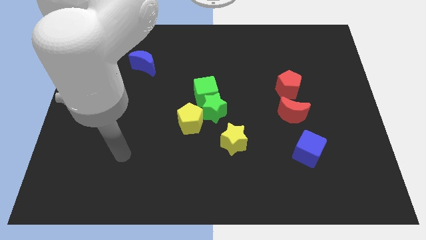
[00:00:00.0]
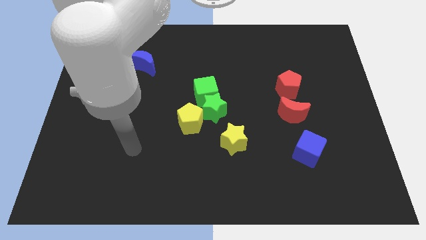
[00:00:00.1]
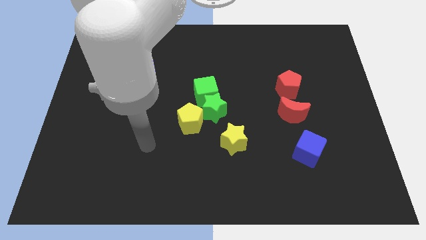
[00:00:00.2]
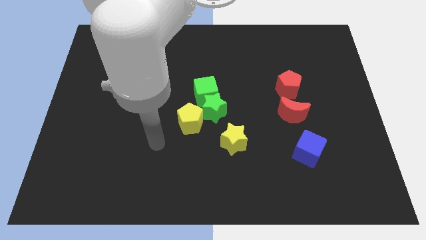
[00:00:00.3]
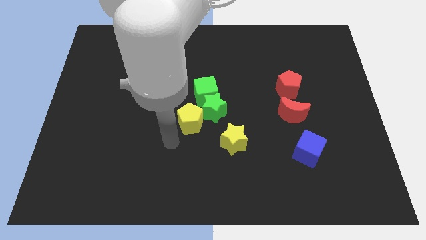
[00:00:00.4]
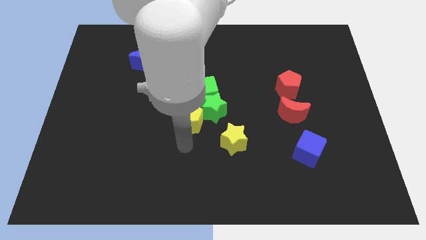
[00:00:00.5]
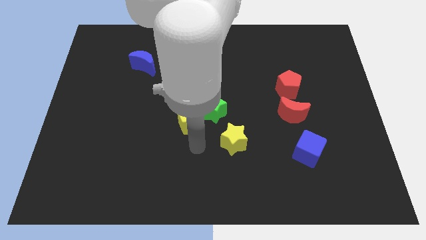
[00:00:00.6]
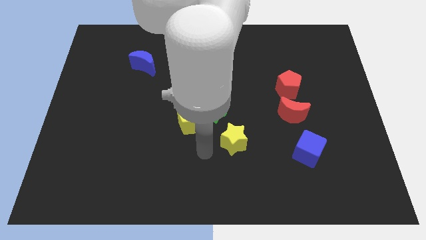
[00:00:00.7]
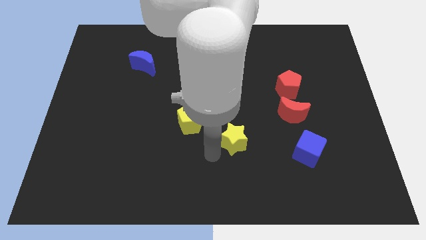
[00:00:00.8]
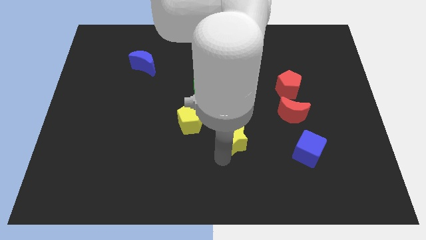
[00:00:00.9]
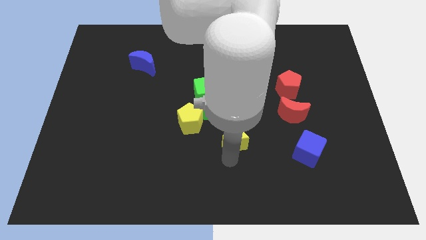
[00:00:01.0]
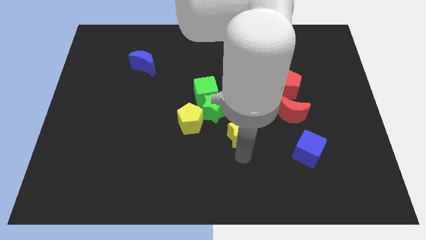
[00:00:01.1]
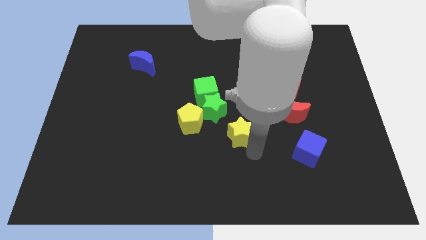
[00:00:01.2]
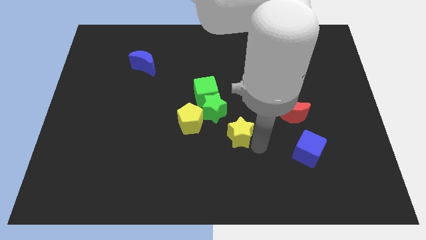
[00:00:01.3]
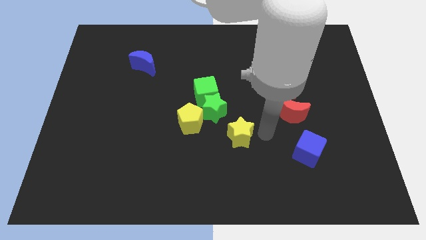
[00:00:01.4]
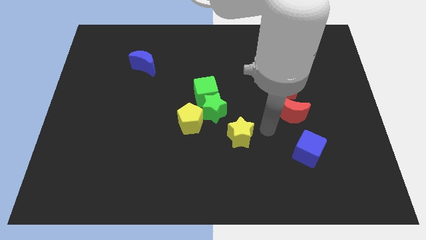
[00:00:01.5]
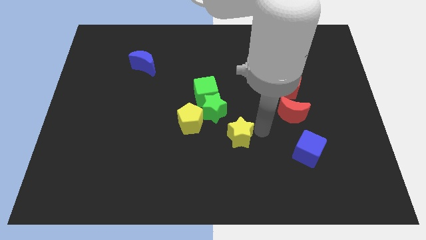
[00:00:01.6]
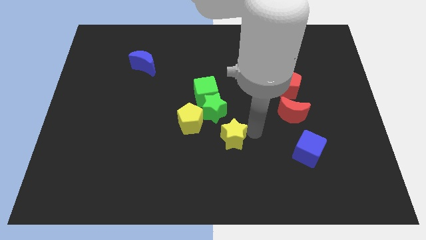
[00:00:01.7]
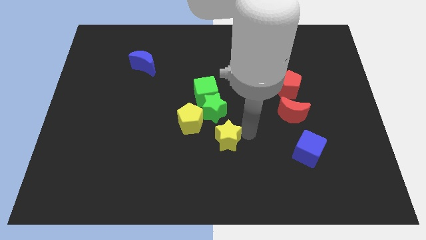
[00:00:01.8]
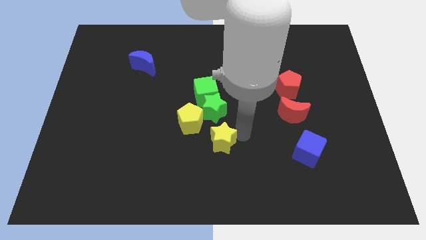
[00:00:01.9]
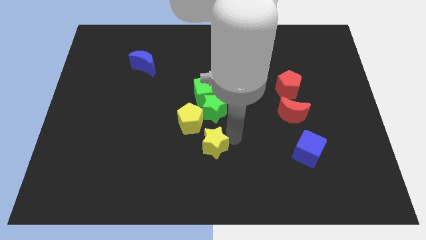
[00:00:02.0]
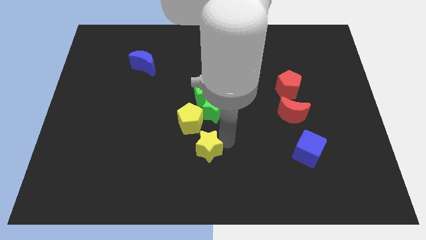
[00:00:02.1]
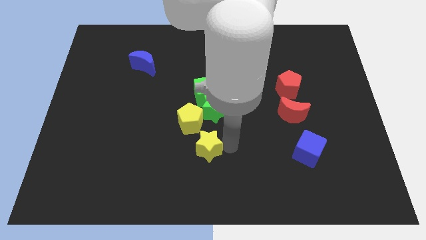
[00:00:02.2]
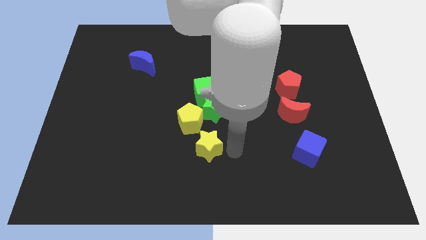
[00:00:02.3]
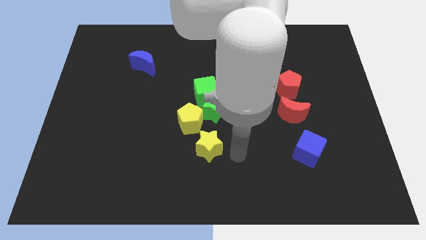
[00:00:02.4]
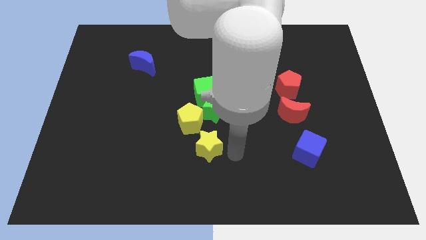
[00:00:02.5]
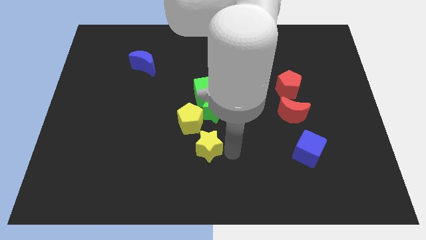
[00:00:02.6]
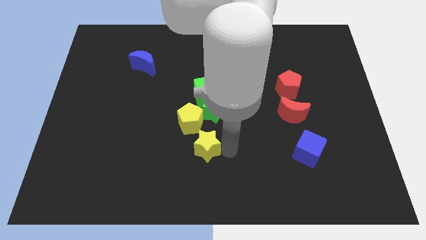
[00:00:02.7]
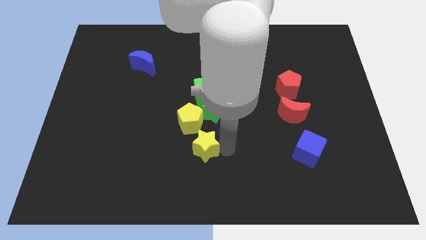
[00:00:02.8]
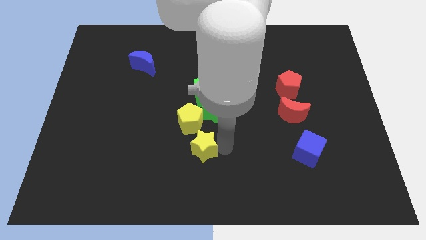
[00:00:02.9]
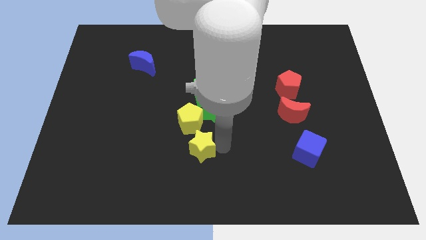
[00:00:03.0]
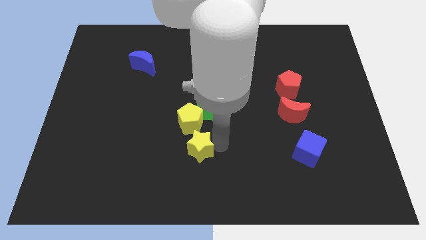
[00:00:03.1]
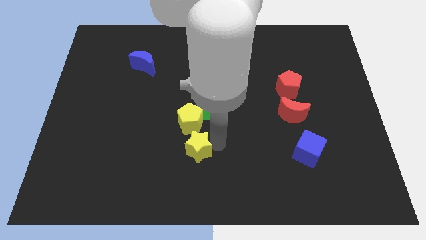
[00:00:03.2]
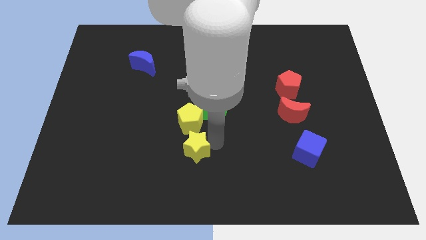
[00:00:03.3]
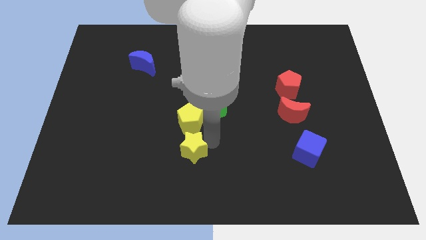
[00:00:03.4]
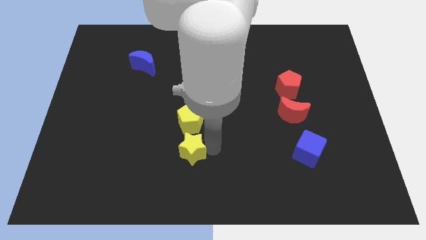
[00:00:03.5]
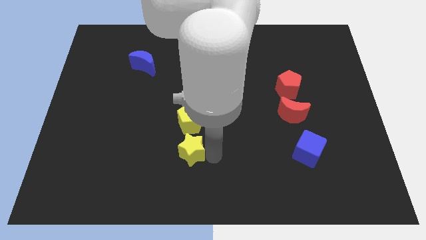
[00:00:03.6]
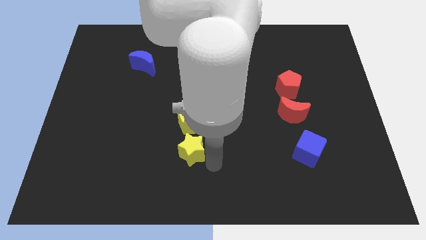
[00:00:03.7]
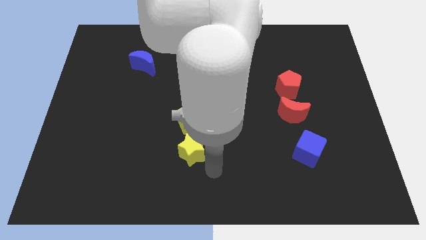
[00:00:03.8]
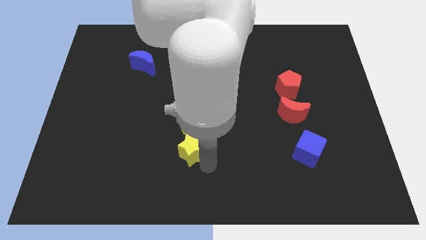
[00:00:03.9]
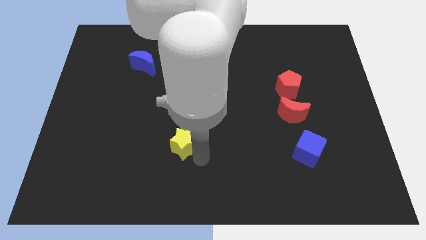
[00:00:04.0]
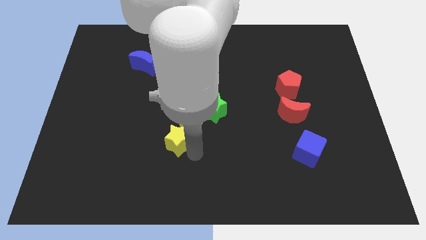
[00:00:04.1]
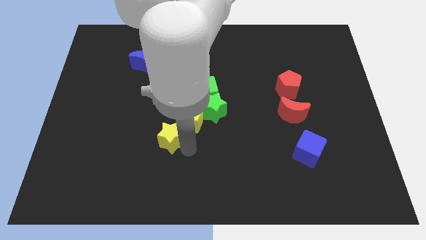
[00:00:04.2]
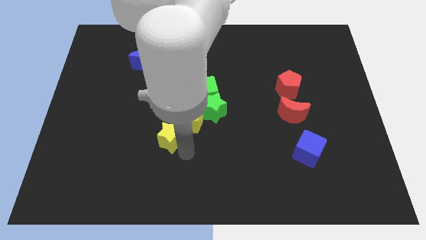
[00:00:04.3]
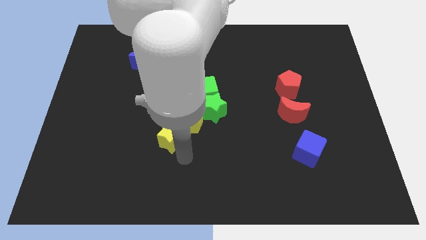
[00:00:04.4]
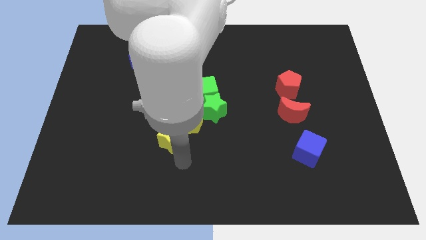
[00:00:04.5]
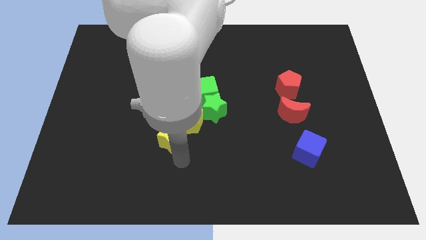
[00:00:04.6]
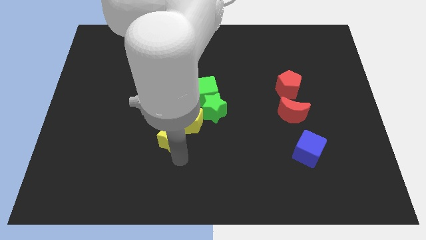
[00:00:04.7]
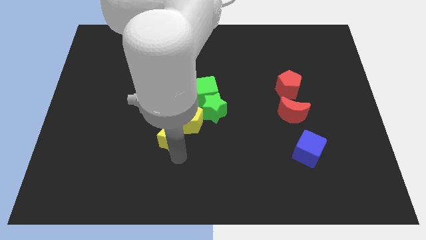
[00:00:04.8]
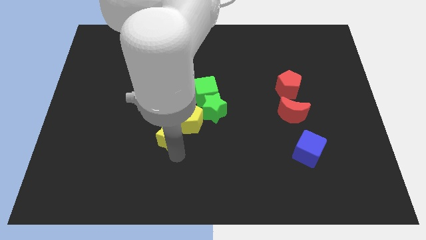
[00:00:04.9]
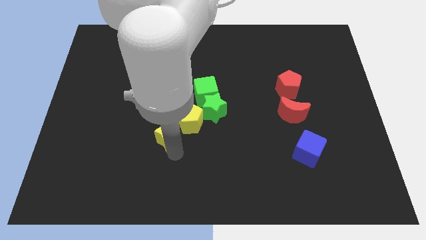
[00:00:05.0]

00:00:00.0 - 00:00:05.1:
move the yellow star up and left a little bit

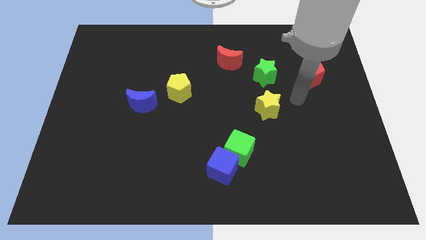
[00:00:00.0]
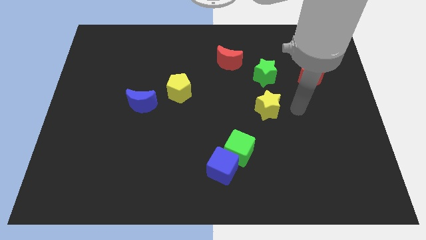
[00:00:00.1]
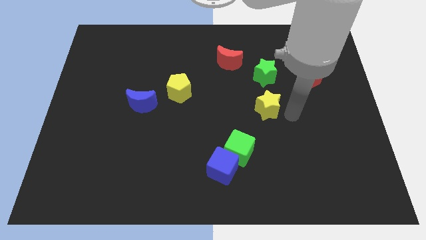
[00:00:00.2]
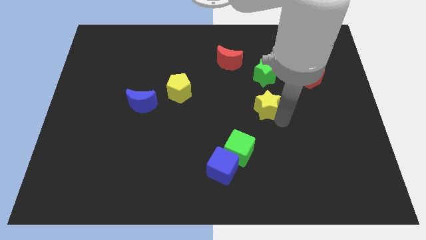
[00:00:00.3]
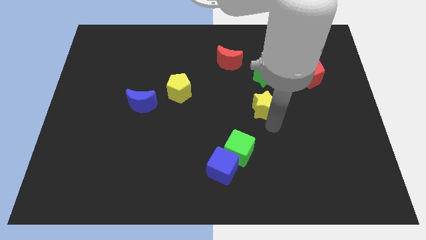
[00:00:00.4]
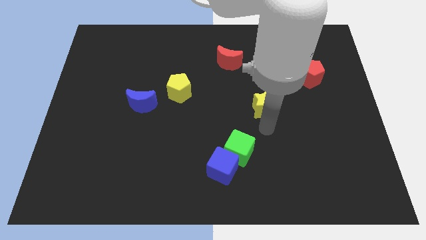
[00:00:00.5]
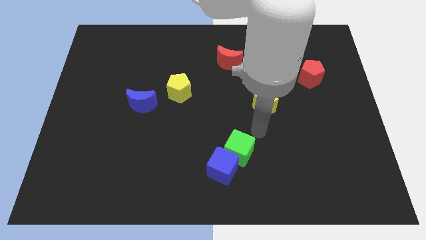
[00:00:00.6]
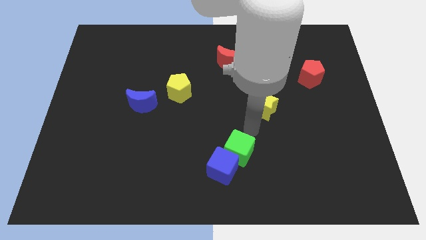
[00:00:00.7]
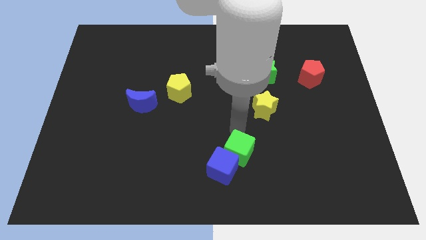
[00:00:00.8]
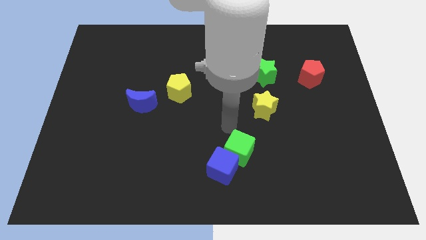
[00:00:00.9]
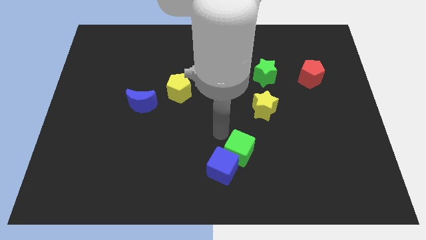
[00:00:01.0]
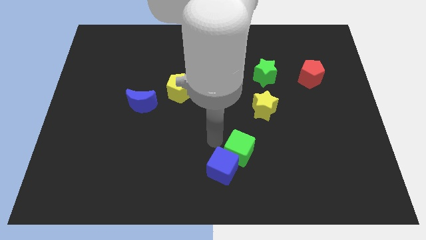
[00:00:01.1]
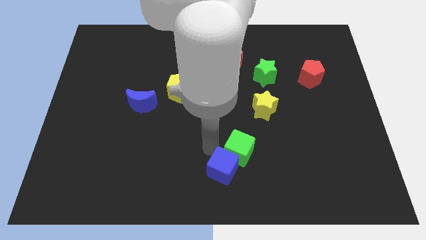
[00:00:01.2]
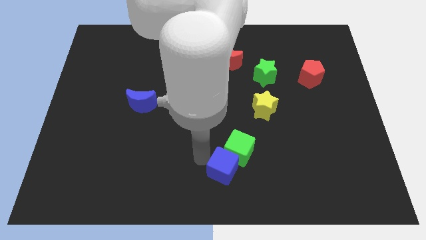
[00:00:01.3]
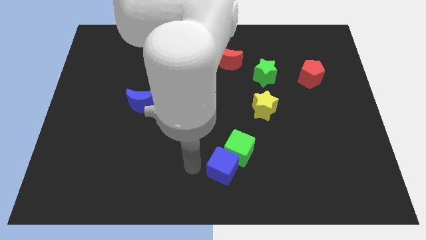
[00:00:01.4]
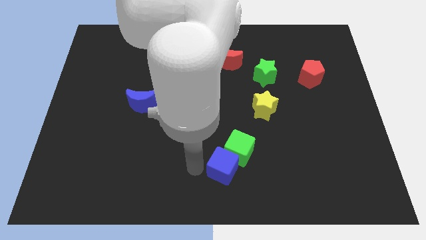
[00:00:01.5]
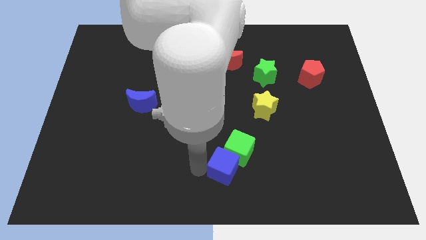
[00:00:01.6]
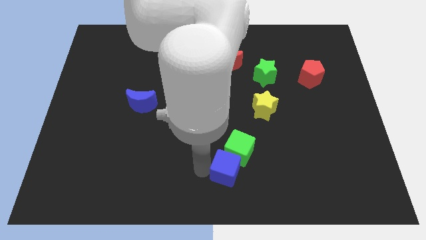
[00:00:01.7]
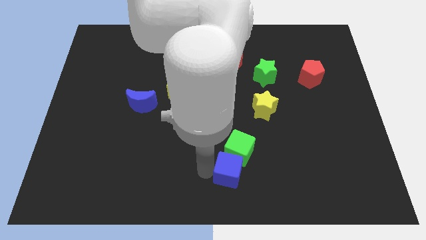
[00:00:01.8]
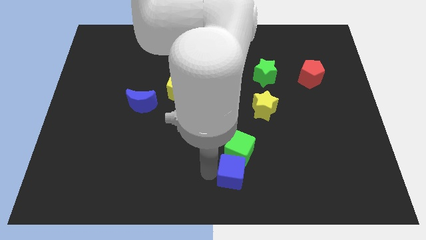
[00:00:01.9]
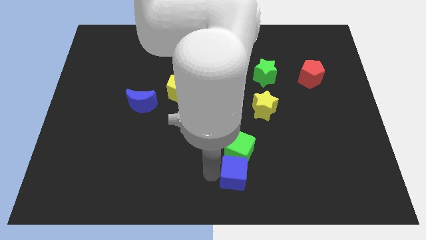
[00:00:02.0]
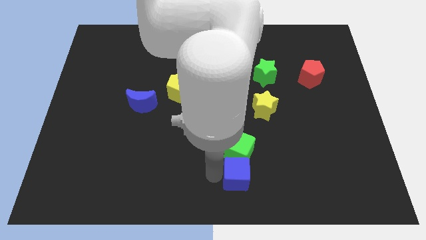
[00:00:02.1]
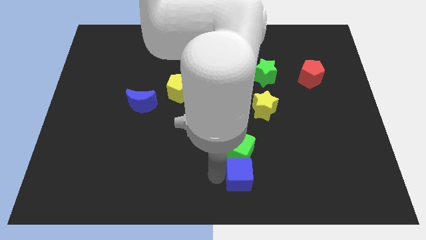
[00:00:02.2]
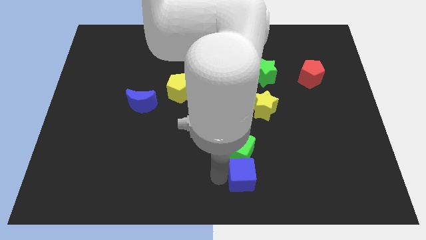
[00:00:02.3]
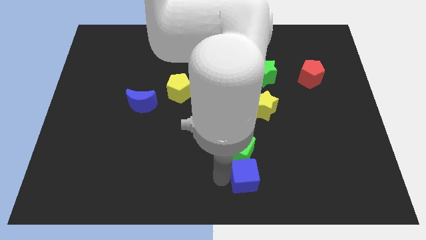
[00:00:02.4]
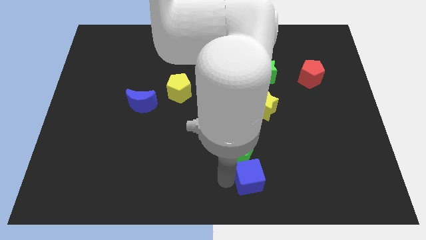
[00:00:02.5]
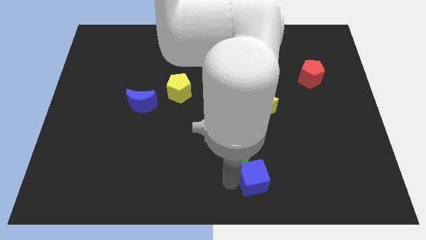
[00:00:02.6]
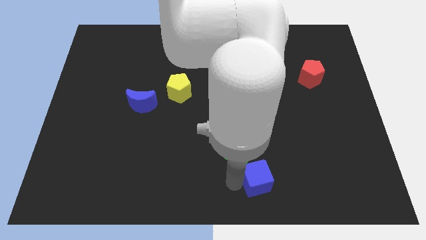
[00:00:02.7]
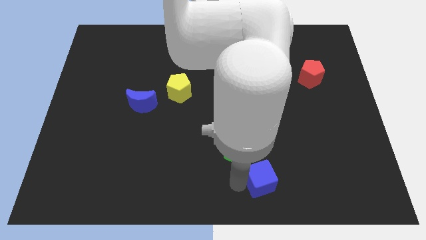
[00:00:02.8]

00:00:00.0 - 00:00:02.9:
slide the blue cube somewhat to the right

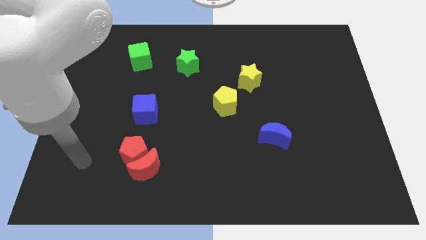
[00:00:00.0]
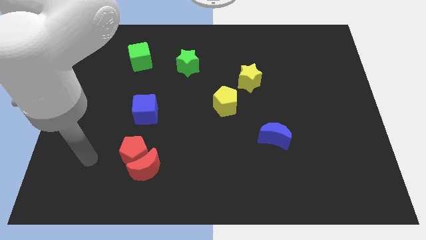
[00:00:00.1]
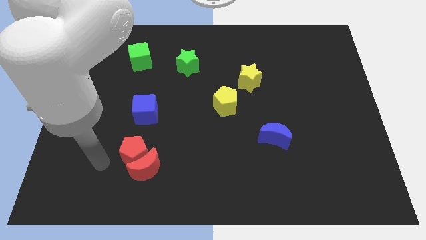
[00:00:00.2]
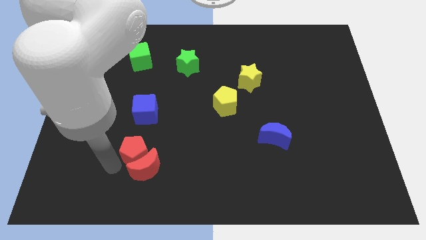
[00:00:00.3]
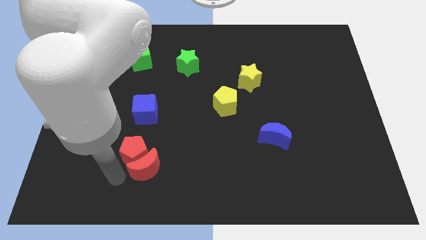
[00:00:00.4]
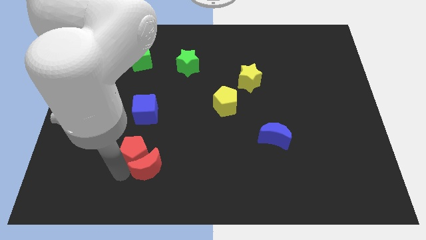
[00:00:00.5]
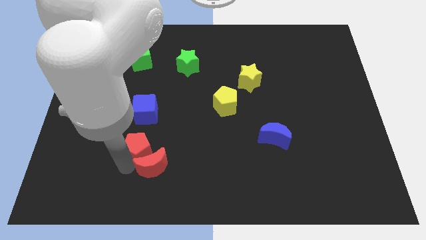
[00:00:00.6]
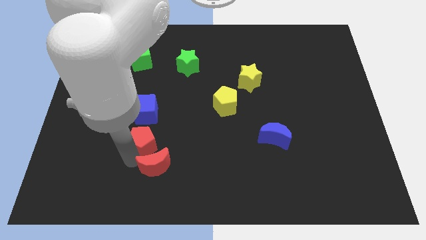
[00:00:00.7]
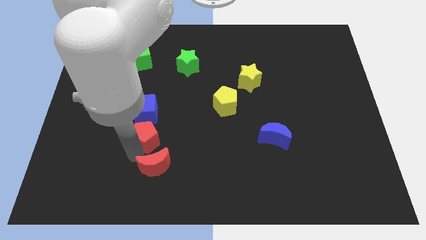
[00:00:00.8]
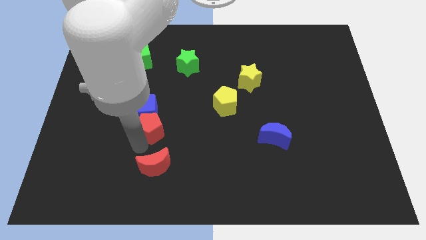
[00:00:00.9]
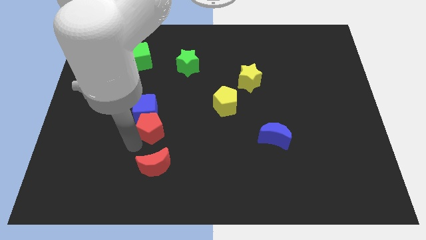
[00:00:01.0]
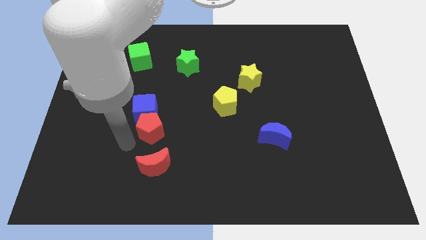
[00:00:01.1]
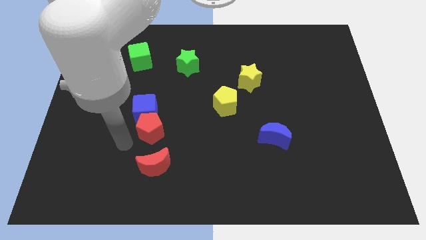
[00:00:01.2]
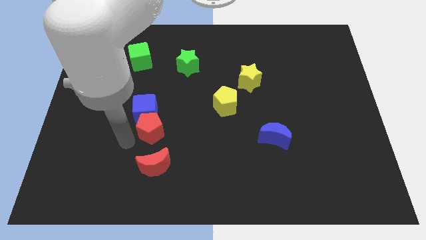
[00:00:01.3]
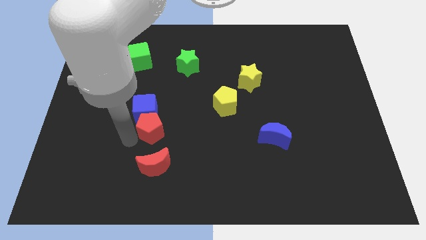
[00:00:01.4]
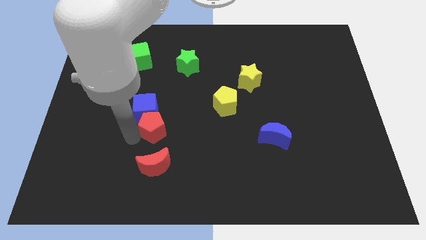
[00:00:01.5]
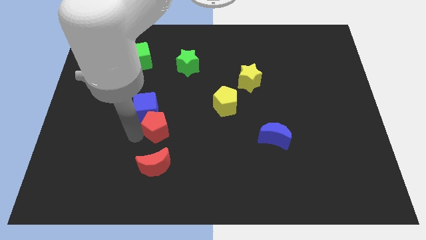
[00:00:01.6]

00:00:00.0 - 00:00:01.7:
slide the red pentagon up and right diagonally a little bit
